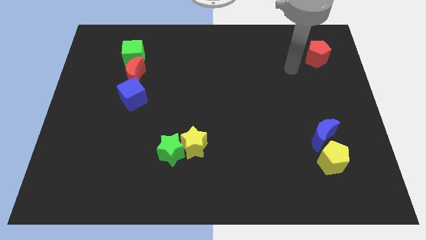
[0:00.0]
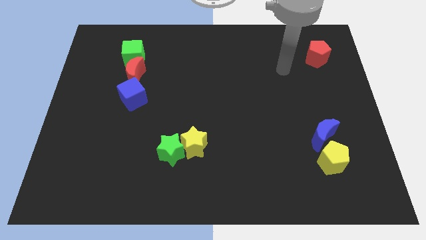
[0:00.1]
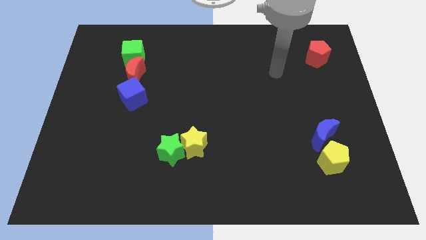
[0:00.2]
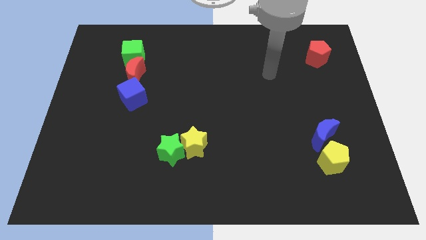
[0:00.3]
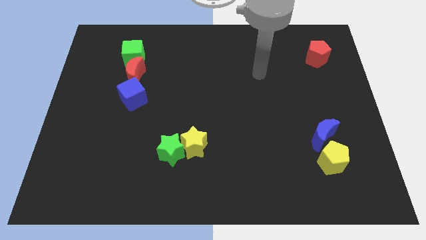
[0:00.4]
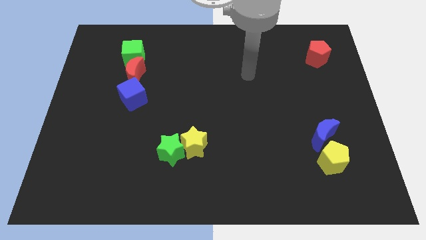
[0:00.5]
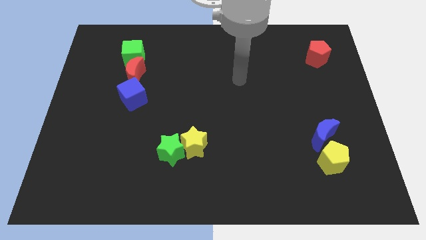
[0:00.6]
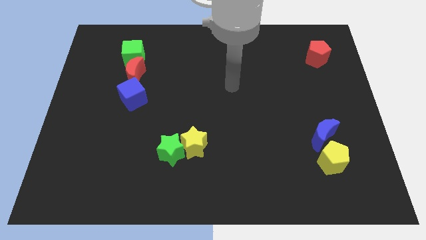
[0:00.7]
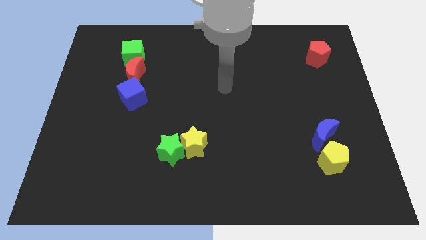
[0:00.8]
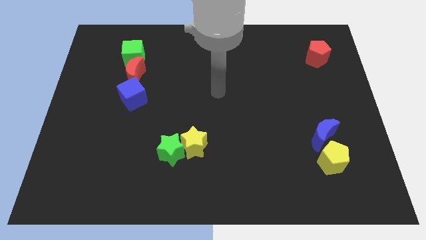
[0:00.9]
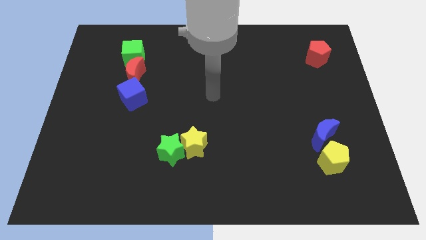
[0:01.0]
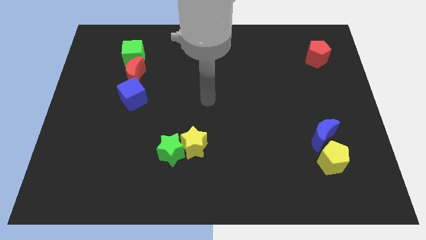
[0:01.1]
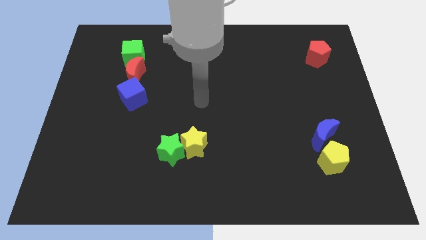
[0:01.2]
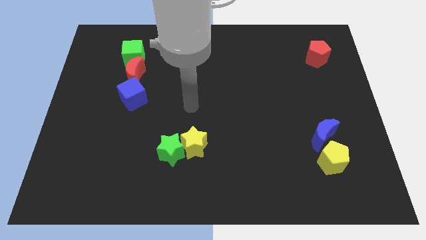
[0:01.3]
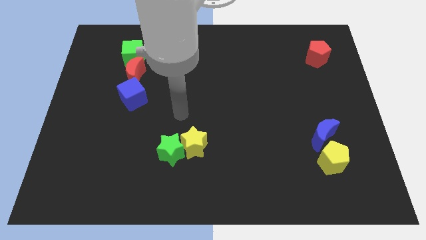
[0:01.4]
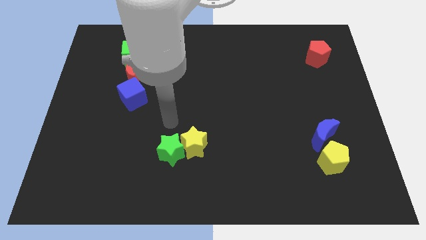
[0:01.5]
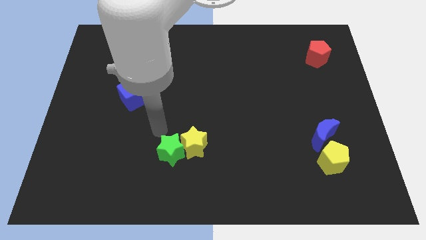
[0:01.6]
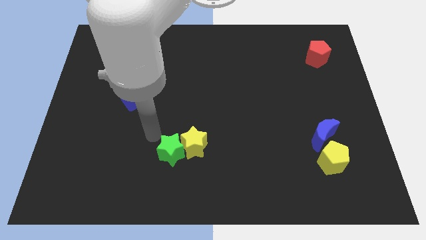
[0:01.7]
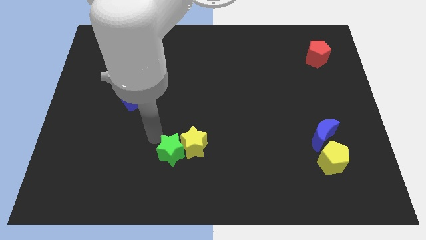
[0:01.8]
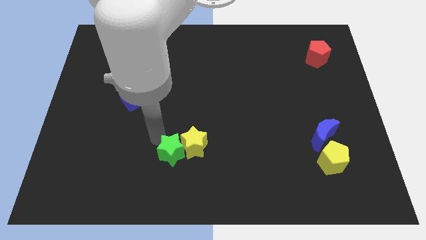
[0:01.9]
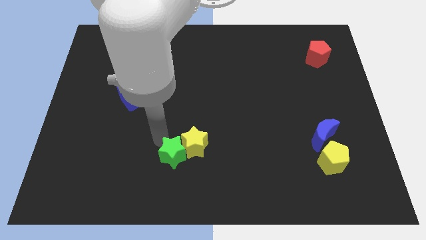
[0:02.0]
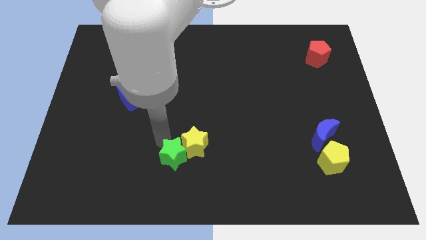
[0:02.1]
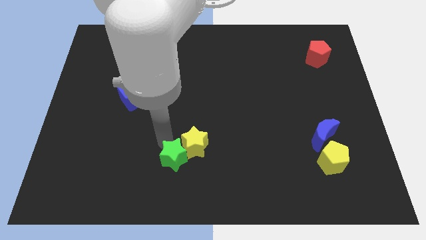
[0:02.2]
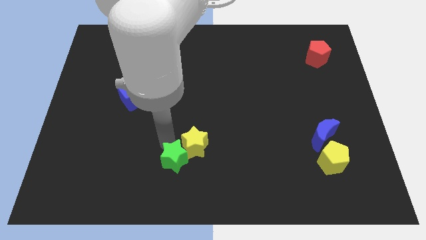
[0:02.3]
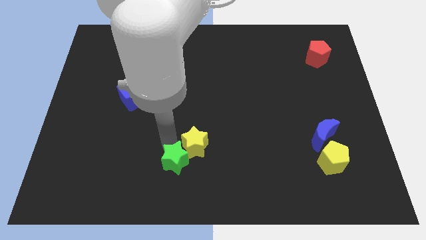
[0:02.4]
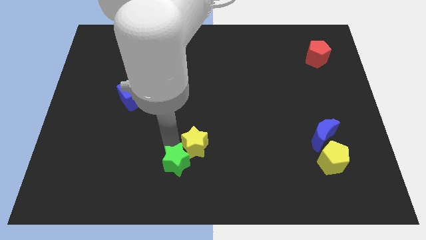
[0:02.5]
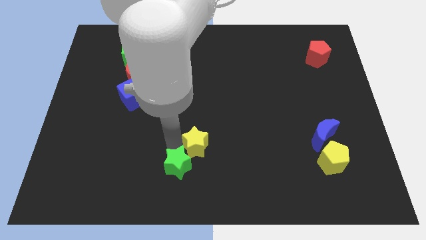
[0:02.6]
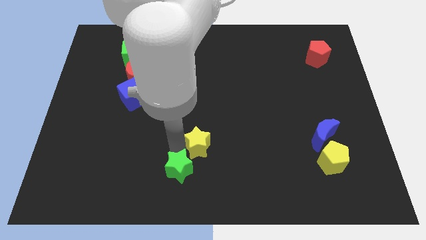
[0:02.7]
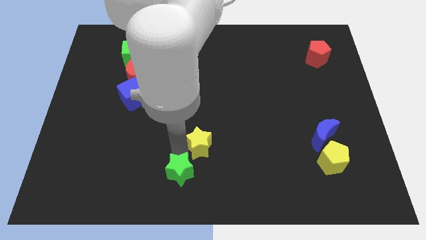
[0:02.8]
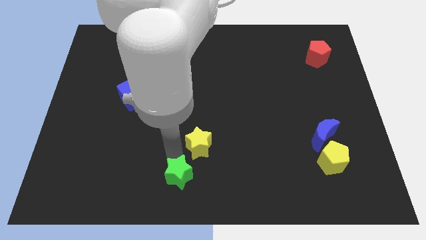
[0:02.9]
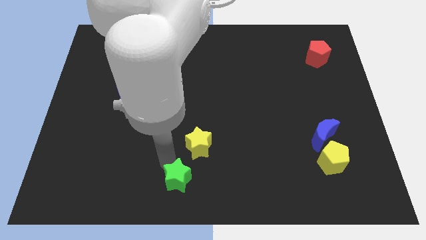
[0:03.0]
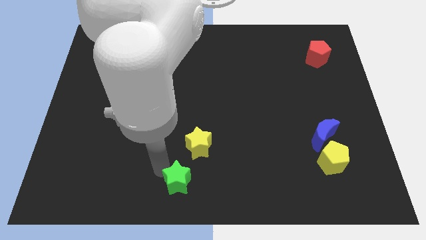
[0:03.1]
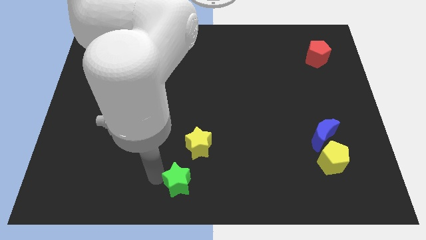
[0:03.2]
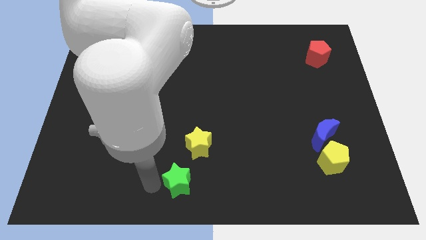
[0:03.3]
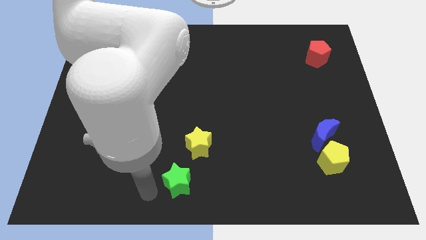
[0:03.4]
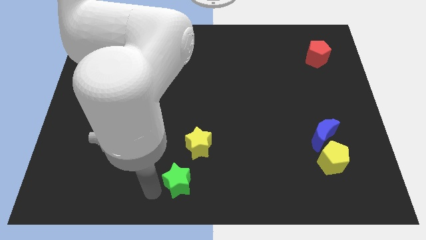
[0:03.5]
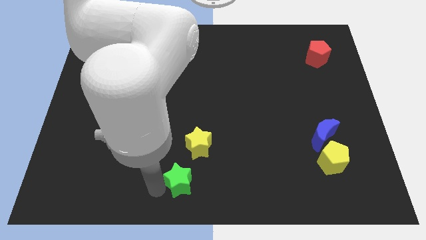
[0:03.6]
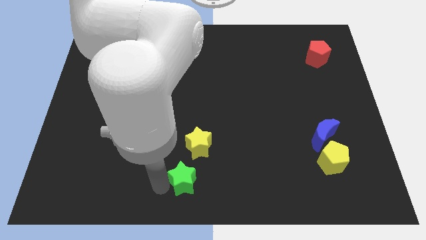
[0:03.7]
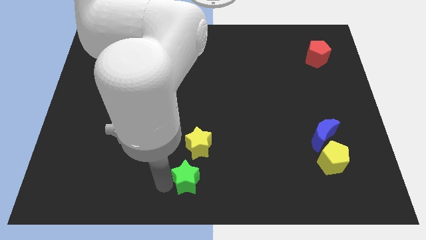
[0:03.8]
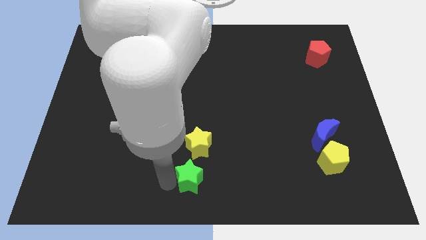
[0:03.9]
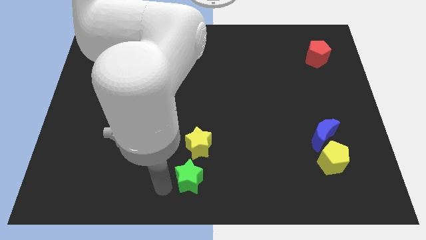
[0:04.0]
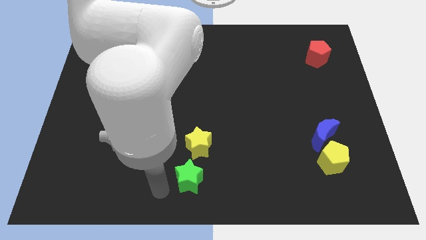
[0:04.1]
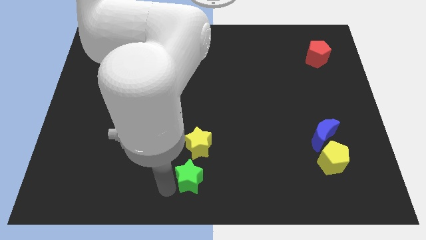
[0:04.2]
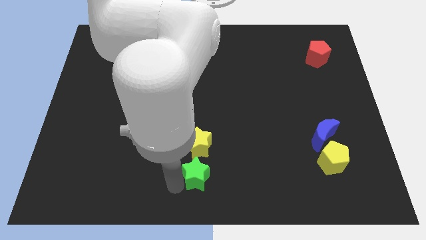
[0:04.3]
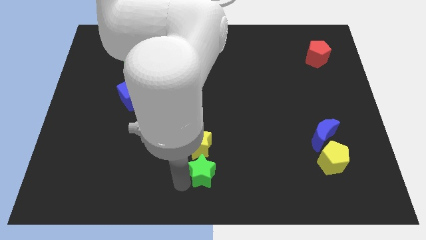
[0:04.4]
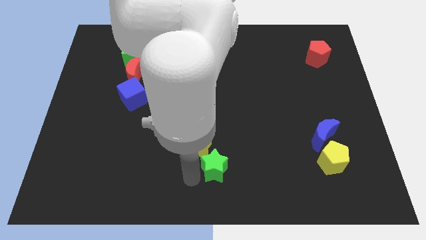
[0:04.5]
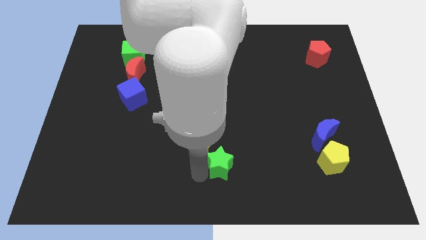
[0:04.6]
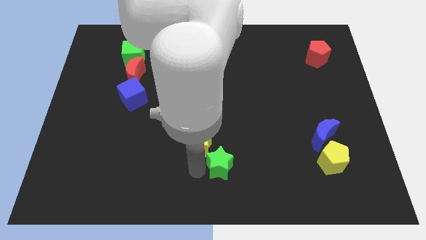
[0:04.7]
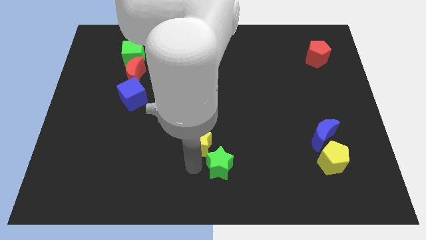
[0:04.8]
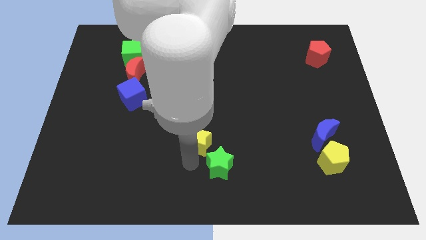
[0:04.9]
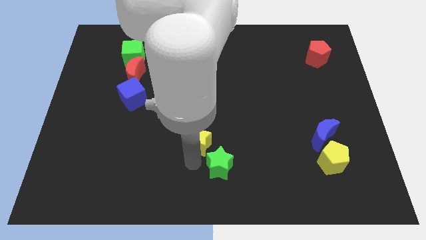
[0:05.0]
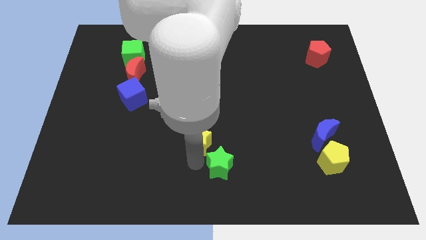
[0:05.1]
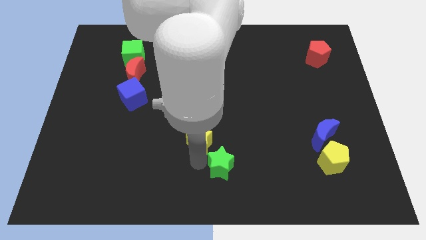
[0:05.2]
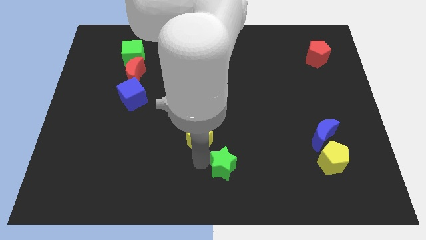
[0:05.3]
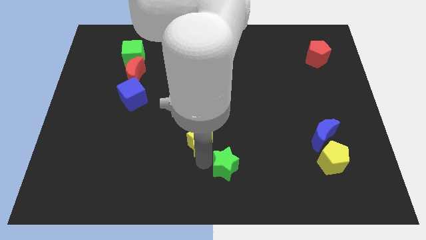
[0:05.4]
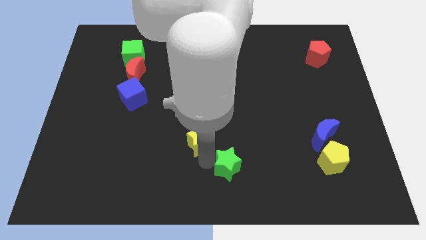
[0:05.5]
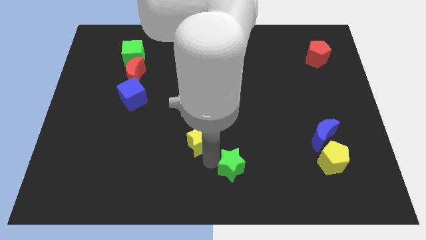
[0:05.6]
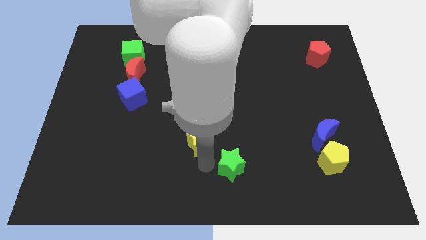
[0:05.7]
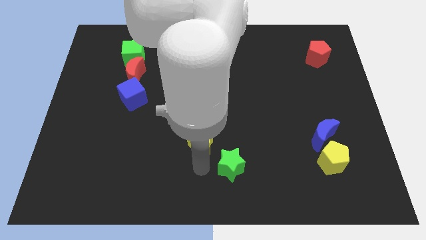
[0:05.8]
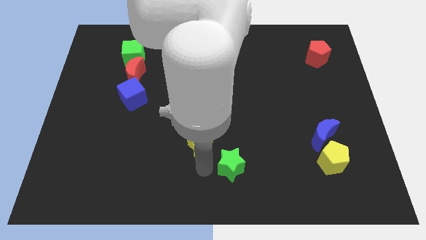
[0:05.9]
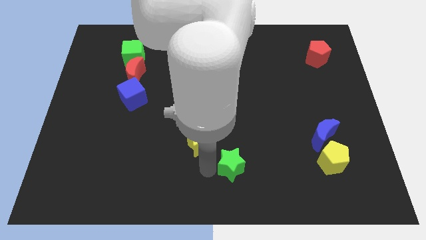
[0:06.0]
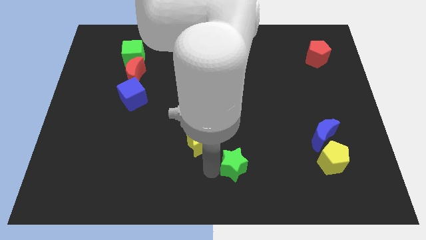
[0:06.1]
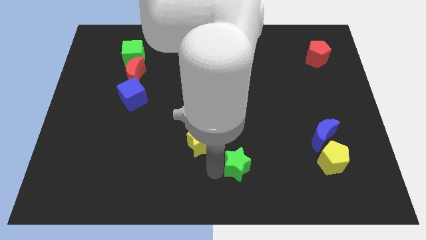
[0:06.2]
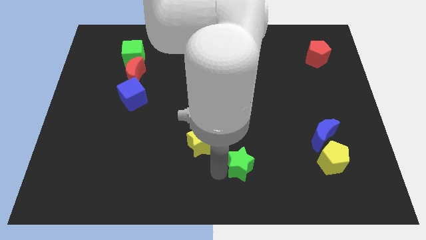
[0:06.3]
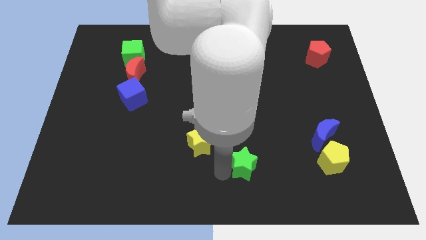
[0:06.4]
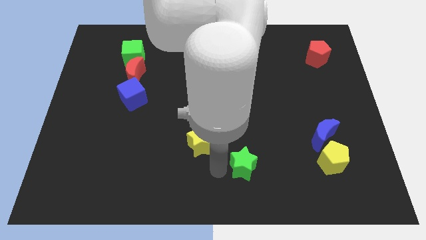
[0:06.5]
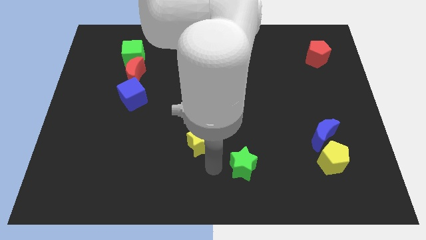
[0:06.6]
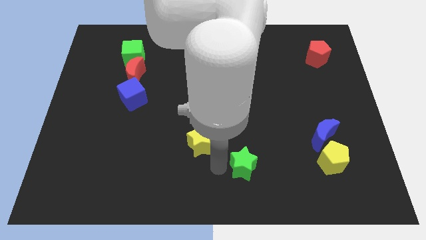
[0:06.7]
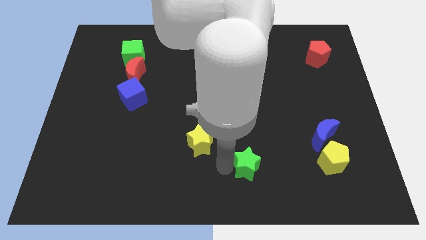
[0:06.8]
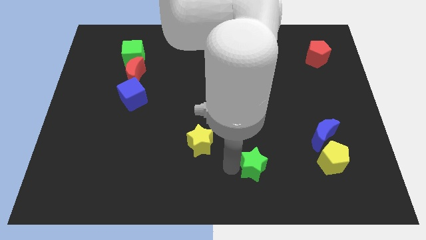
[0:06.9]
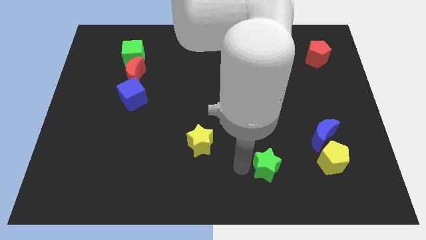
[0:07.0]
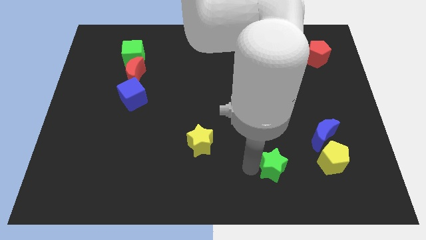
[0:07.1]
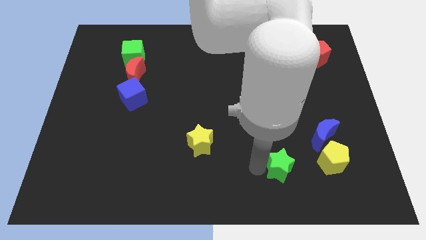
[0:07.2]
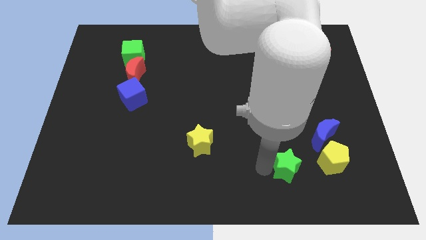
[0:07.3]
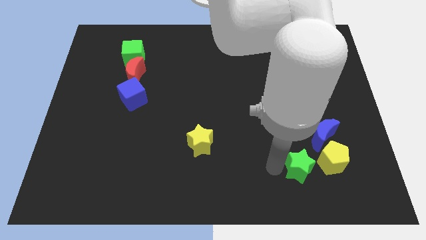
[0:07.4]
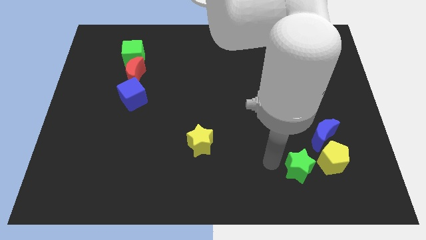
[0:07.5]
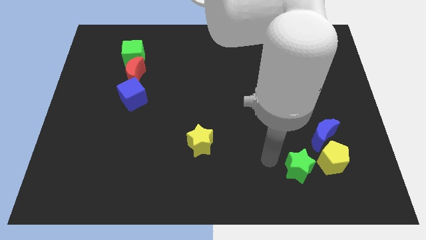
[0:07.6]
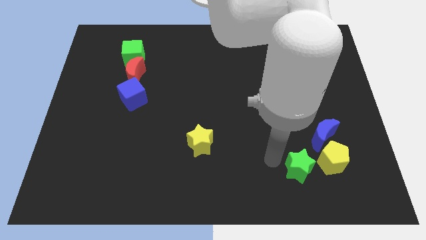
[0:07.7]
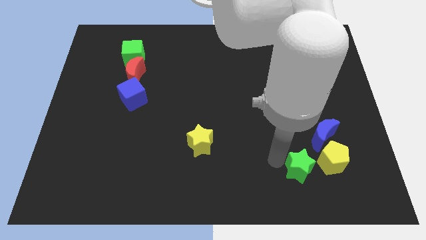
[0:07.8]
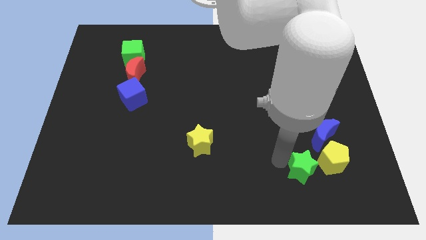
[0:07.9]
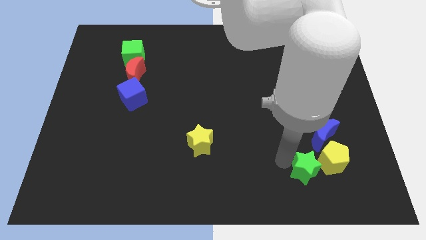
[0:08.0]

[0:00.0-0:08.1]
move the green star below the blue moon
